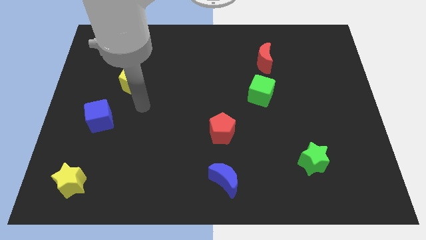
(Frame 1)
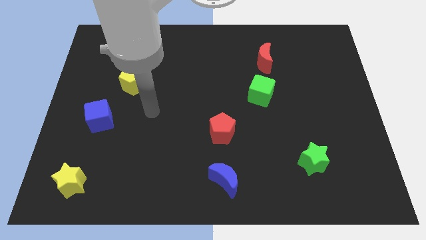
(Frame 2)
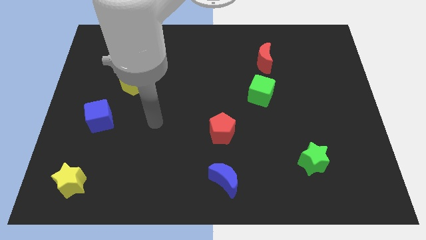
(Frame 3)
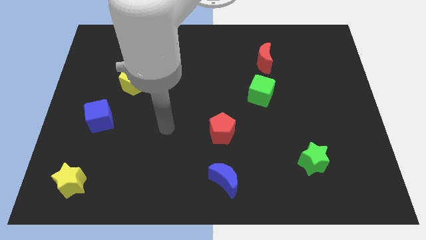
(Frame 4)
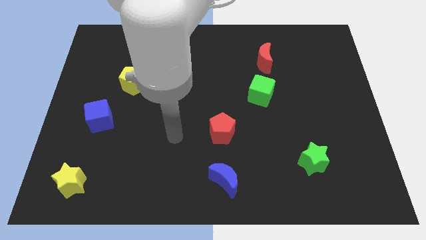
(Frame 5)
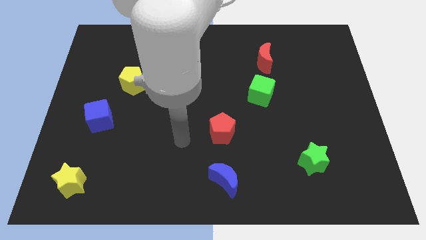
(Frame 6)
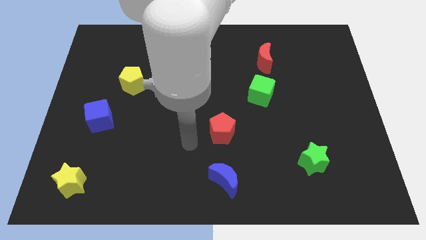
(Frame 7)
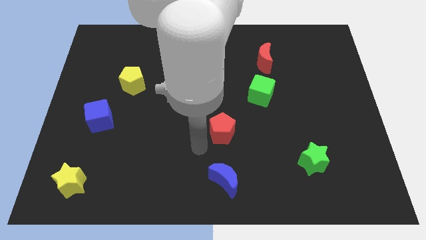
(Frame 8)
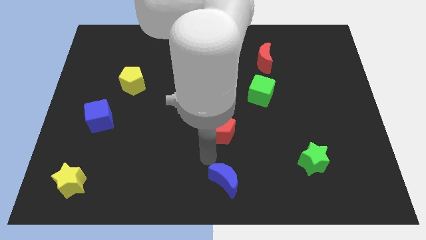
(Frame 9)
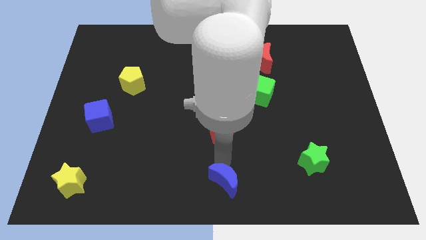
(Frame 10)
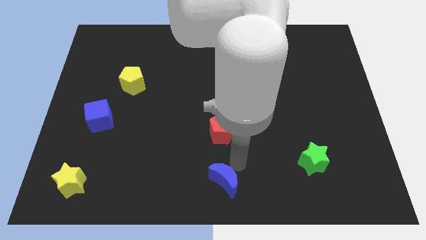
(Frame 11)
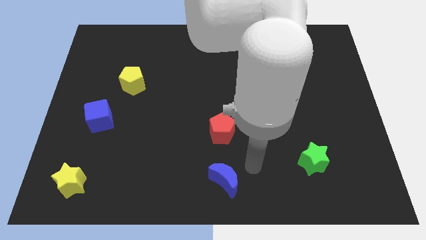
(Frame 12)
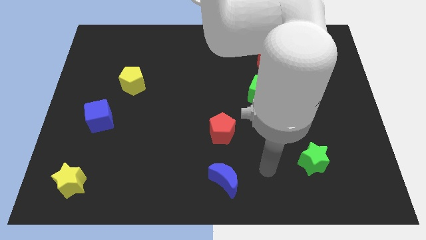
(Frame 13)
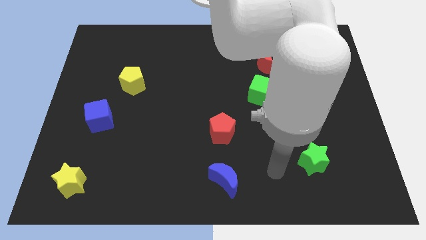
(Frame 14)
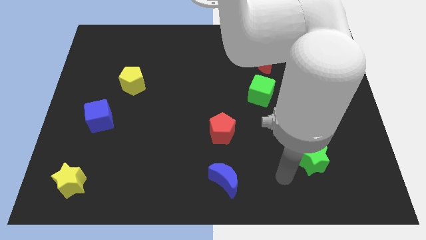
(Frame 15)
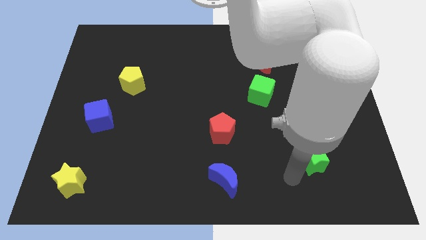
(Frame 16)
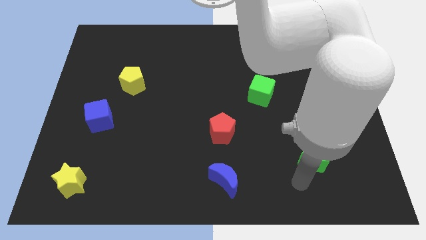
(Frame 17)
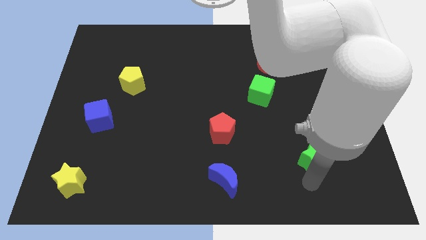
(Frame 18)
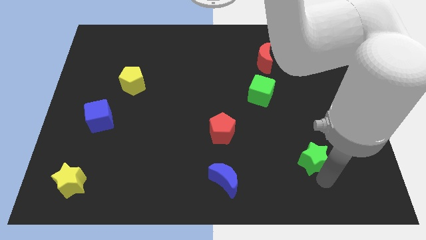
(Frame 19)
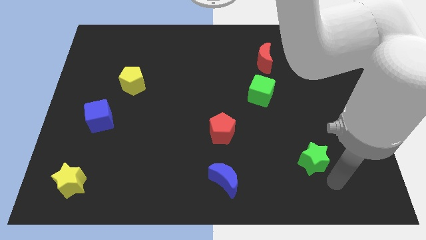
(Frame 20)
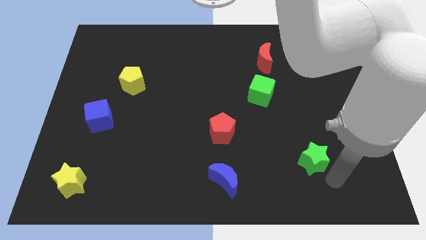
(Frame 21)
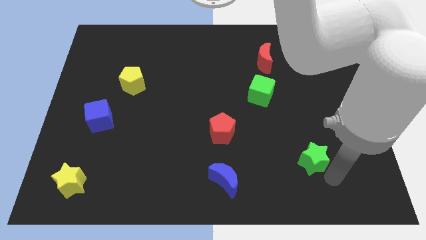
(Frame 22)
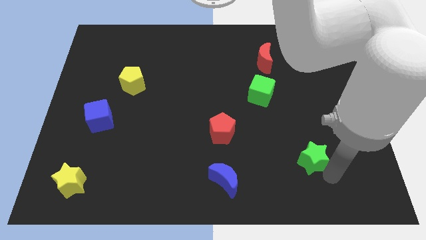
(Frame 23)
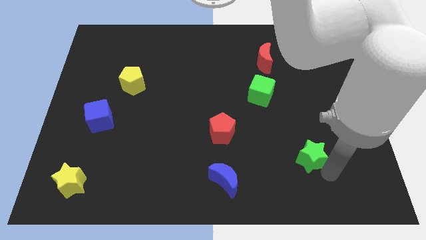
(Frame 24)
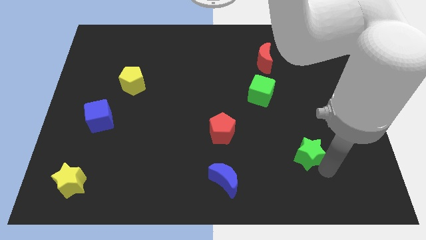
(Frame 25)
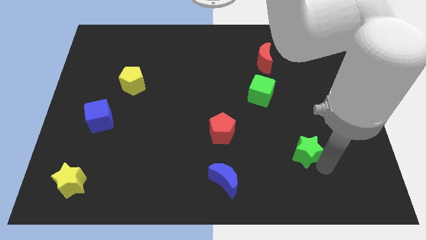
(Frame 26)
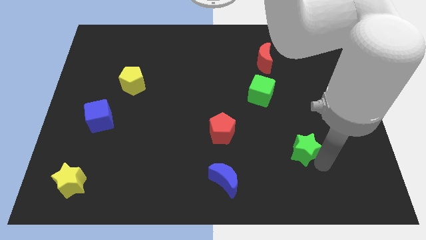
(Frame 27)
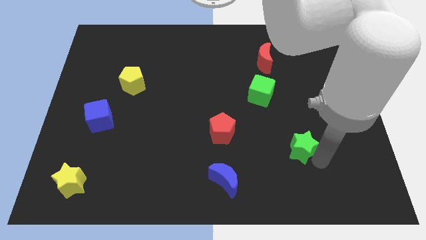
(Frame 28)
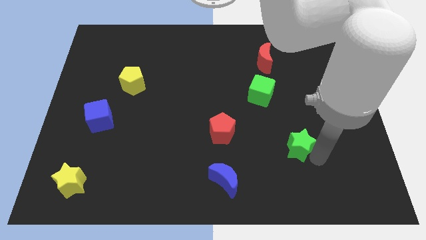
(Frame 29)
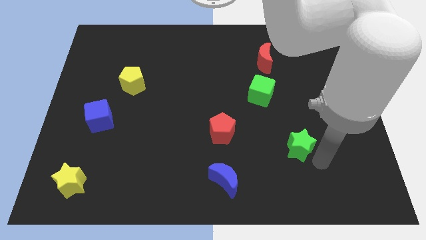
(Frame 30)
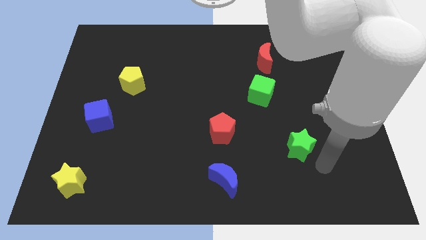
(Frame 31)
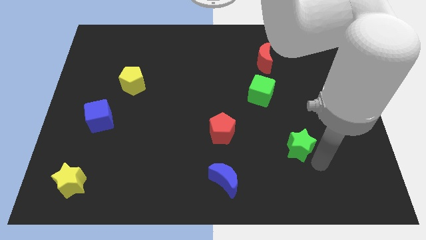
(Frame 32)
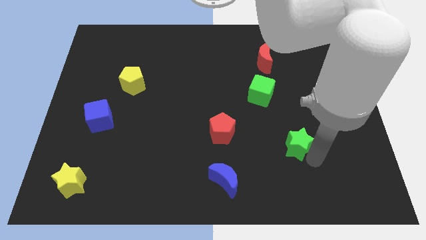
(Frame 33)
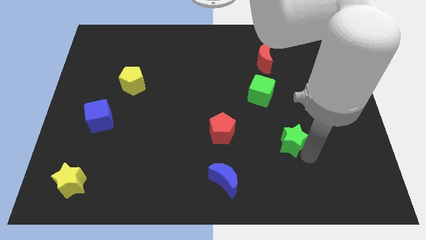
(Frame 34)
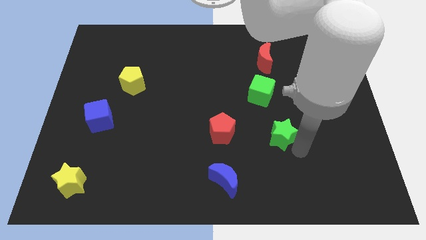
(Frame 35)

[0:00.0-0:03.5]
move the green star up and left diagonally a little

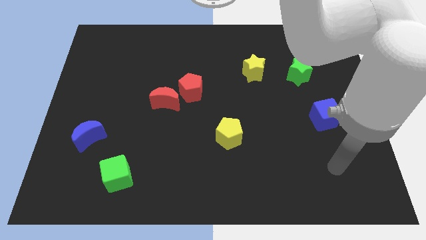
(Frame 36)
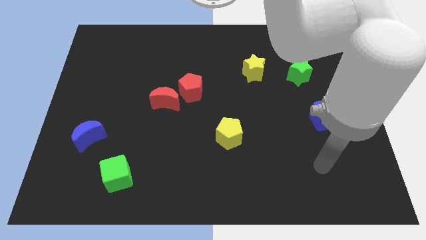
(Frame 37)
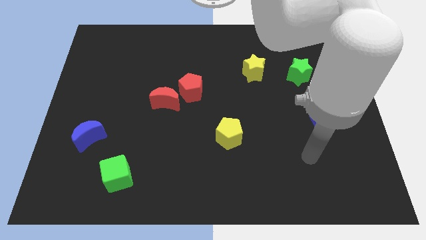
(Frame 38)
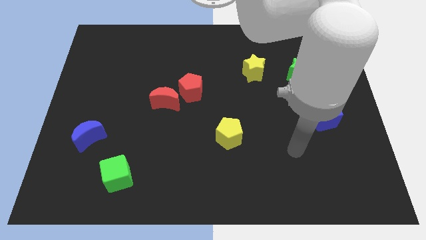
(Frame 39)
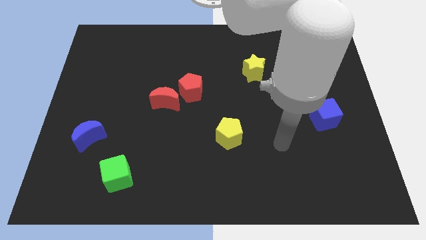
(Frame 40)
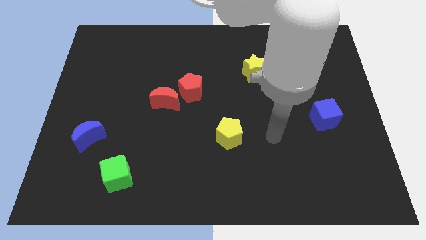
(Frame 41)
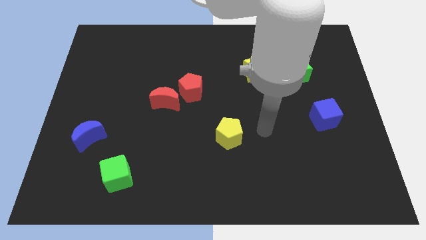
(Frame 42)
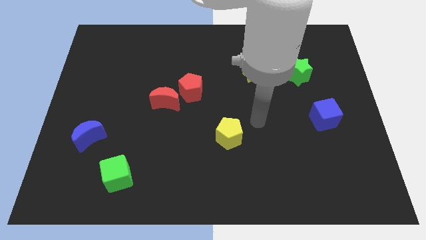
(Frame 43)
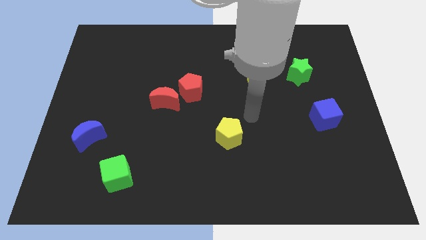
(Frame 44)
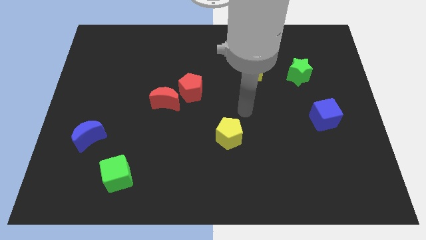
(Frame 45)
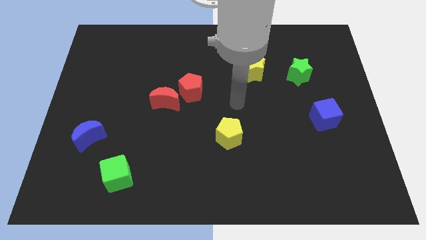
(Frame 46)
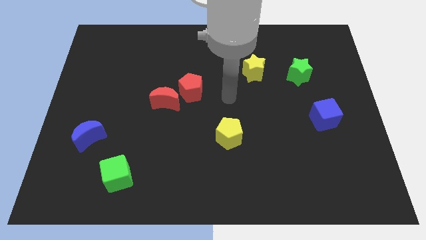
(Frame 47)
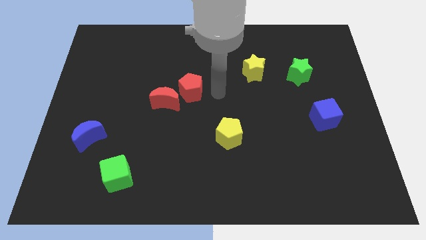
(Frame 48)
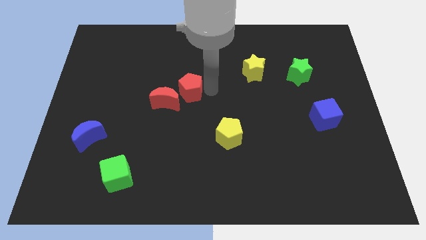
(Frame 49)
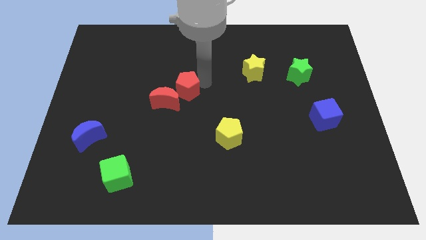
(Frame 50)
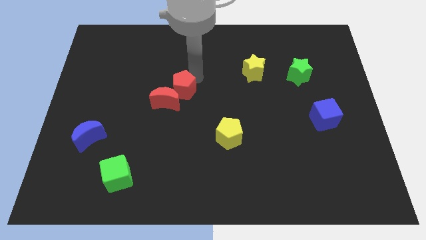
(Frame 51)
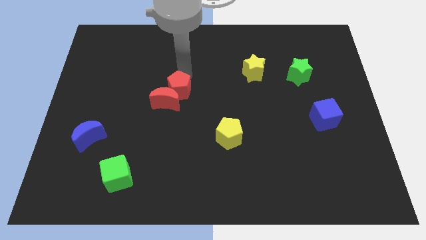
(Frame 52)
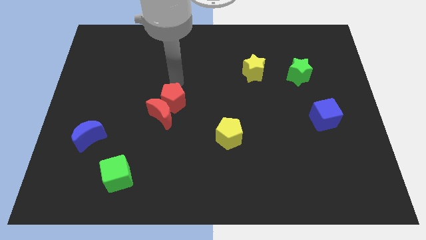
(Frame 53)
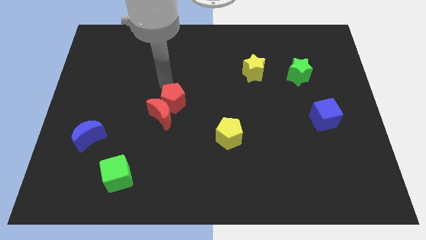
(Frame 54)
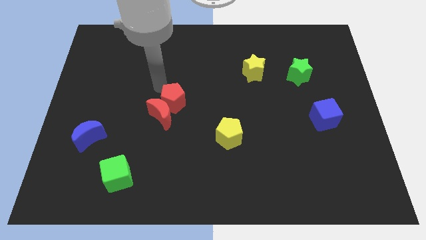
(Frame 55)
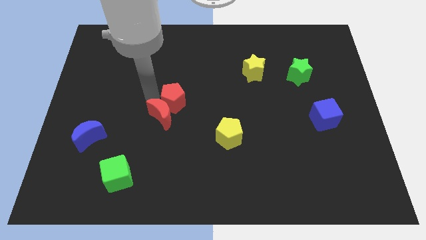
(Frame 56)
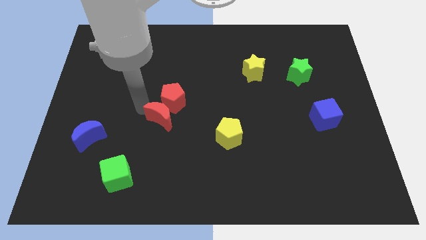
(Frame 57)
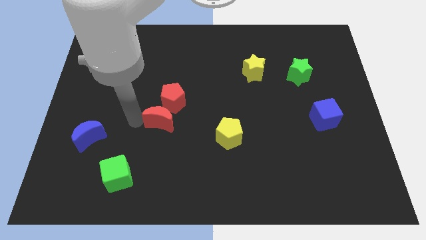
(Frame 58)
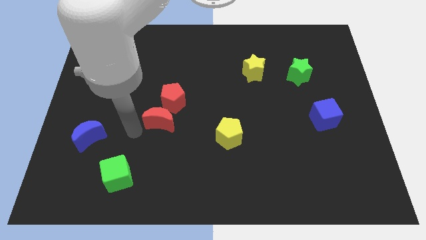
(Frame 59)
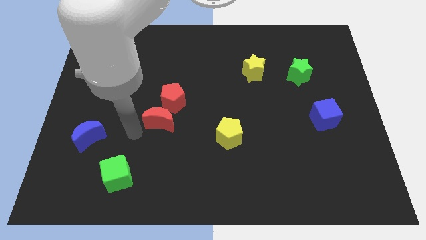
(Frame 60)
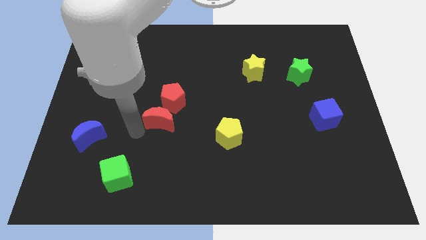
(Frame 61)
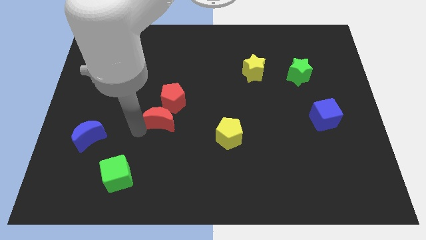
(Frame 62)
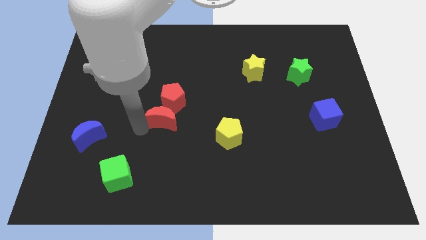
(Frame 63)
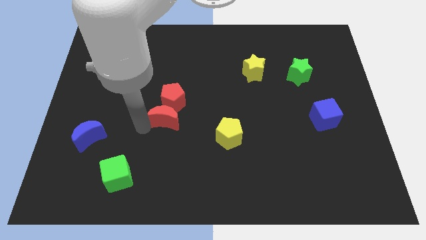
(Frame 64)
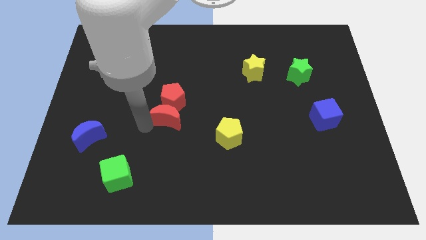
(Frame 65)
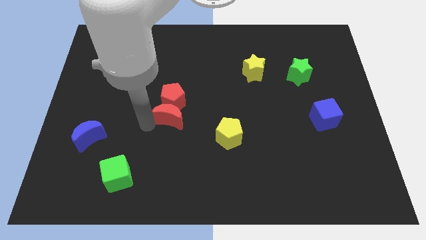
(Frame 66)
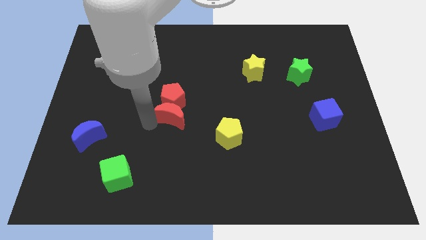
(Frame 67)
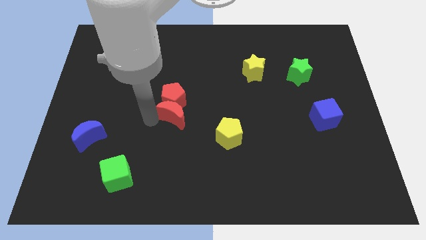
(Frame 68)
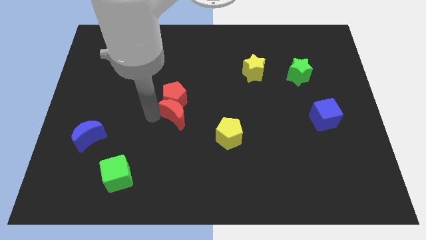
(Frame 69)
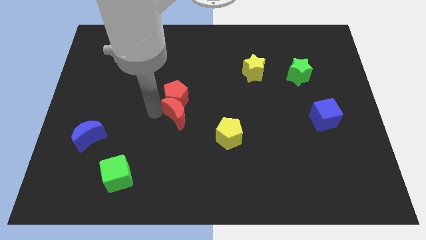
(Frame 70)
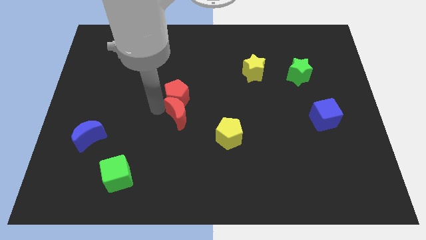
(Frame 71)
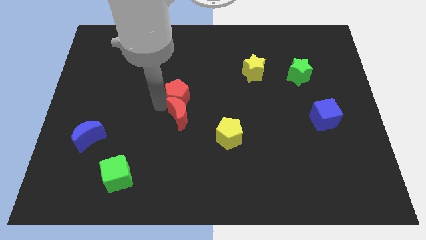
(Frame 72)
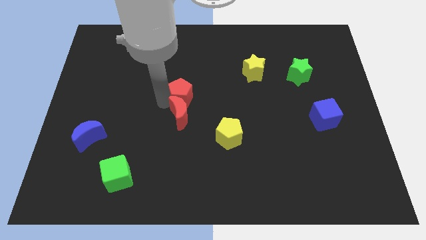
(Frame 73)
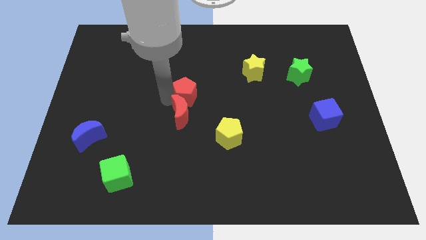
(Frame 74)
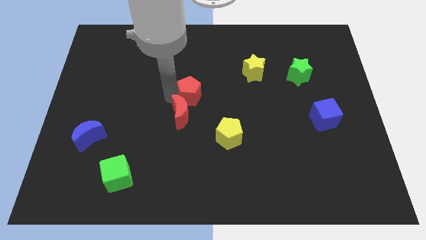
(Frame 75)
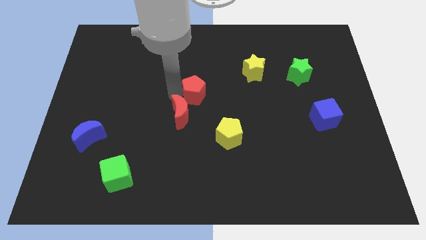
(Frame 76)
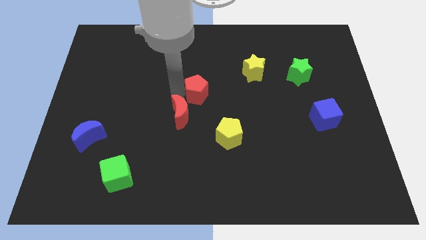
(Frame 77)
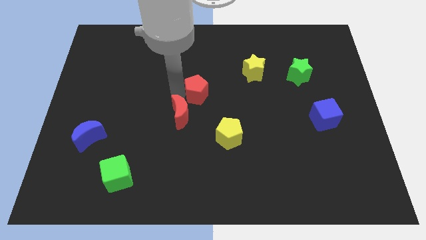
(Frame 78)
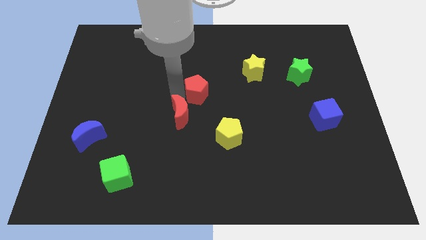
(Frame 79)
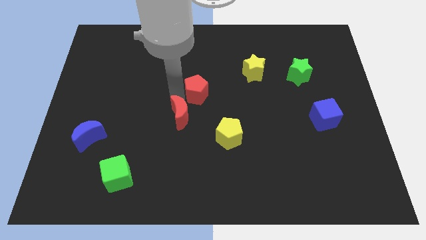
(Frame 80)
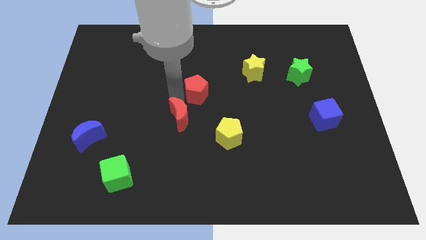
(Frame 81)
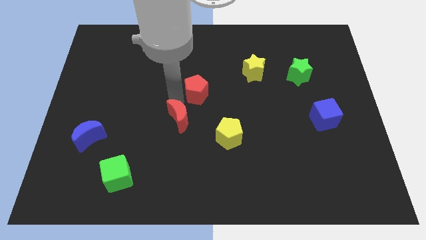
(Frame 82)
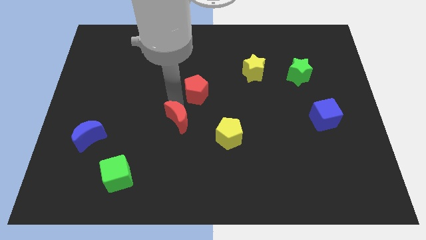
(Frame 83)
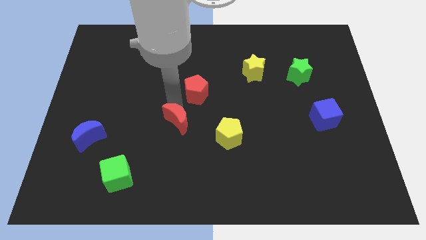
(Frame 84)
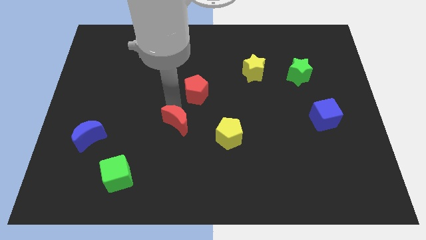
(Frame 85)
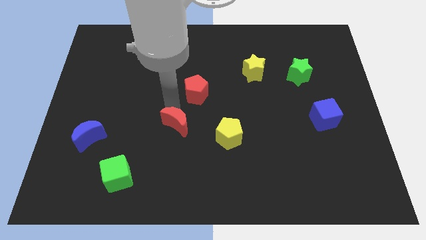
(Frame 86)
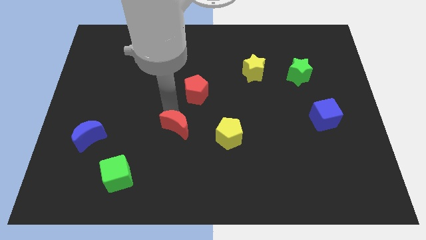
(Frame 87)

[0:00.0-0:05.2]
slide the red moon a little downwards and then to the right
